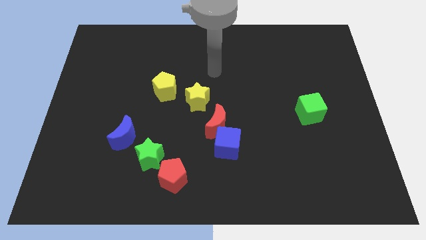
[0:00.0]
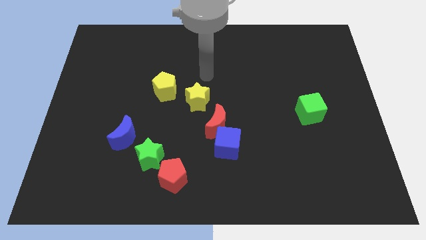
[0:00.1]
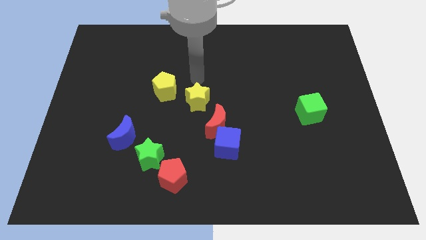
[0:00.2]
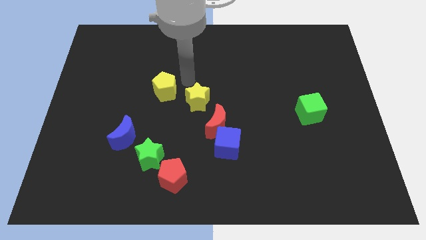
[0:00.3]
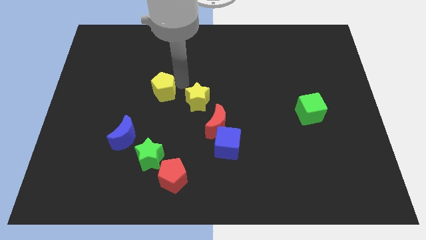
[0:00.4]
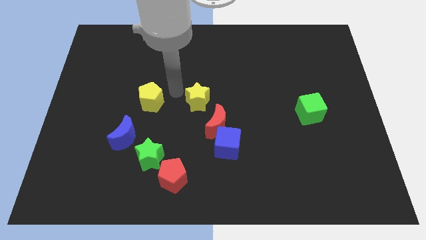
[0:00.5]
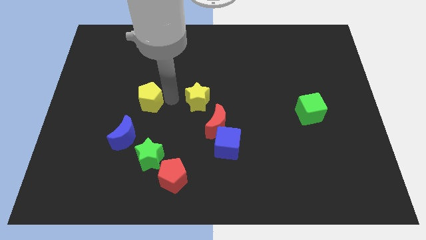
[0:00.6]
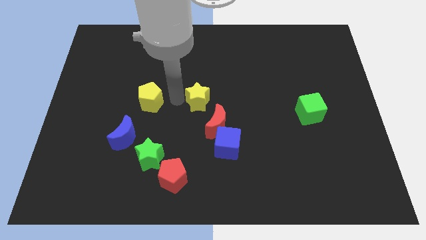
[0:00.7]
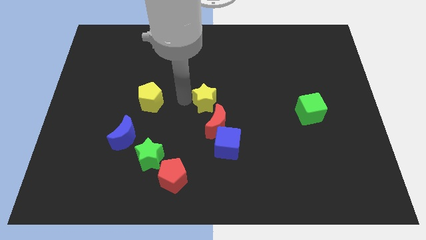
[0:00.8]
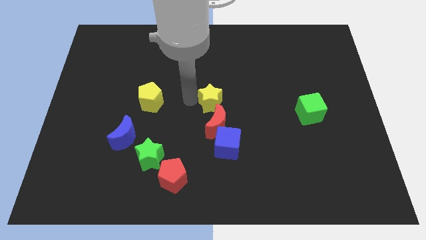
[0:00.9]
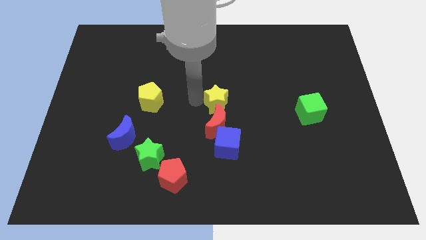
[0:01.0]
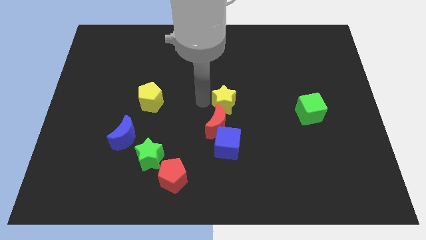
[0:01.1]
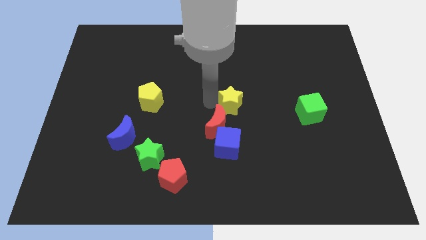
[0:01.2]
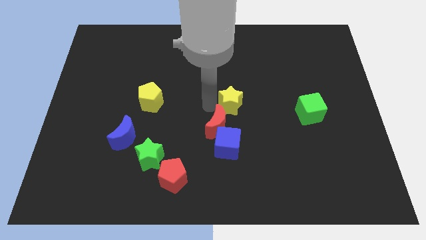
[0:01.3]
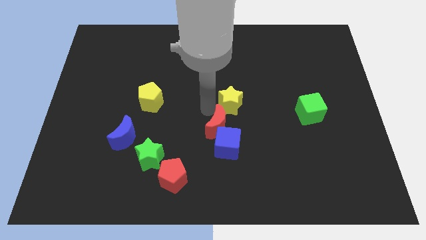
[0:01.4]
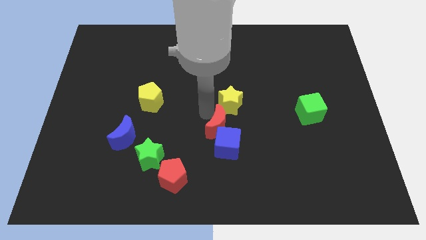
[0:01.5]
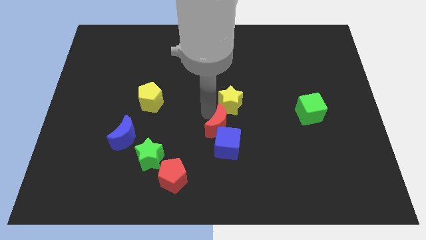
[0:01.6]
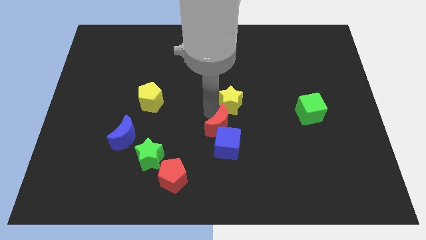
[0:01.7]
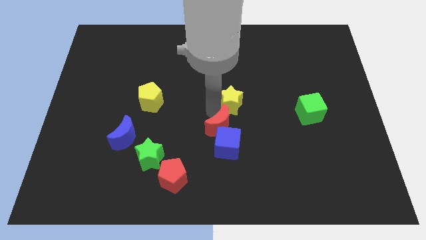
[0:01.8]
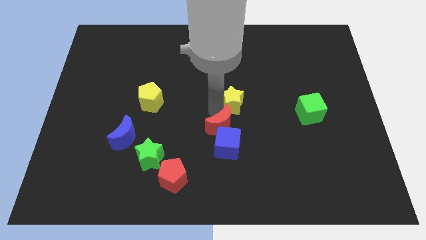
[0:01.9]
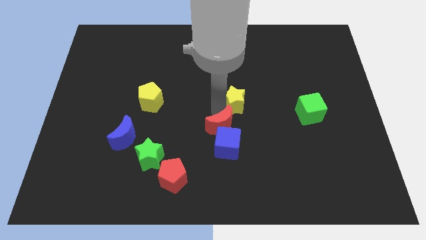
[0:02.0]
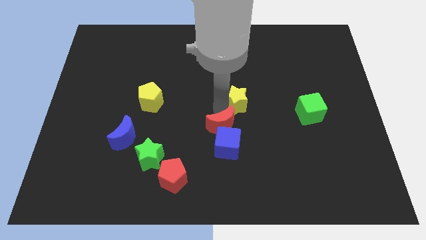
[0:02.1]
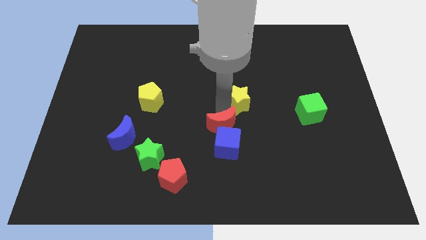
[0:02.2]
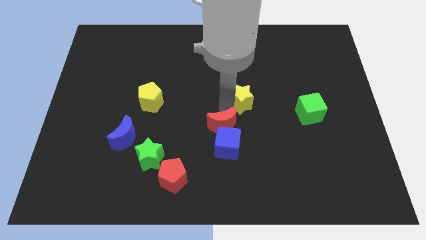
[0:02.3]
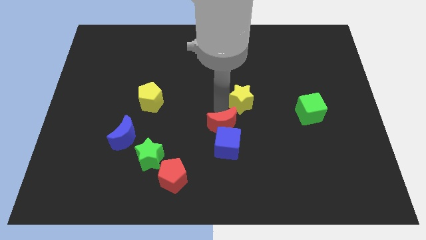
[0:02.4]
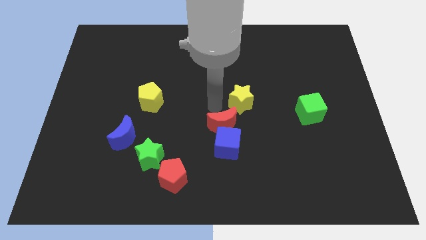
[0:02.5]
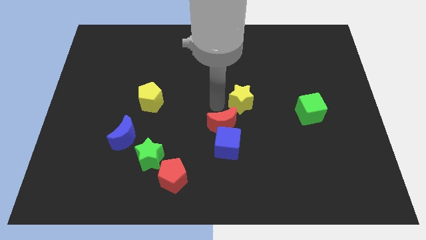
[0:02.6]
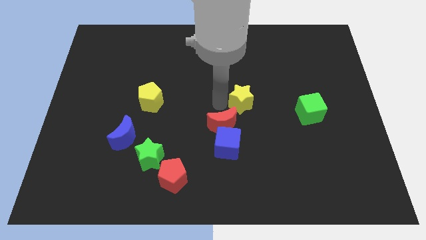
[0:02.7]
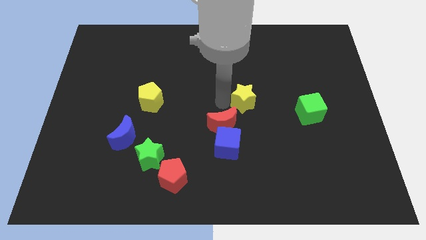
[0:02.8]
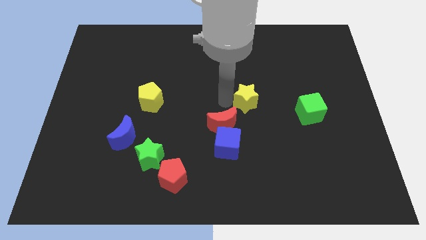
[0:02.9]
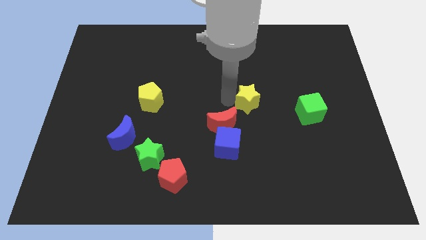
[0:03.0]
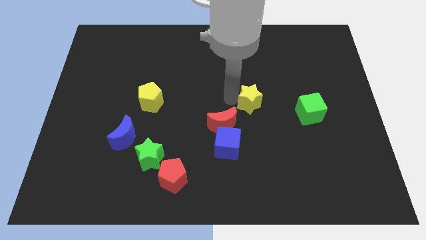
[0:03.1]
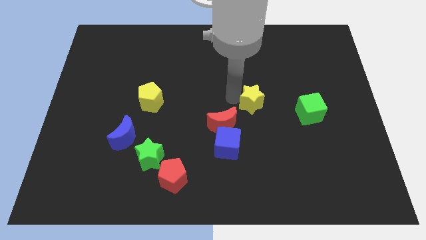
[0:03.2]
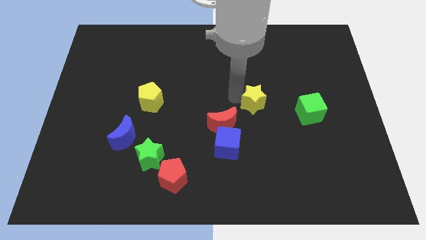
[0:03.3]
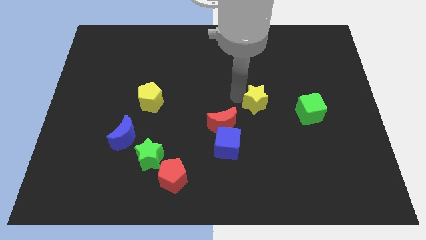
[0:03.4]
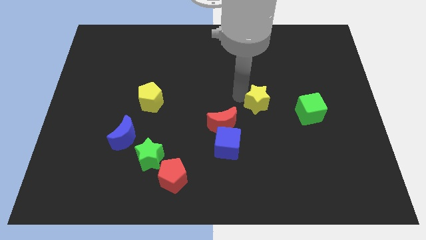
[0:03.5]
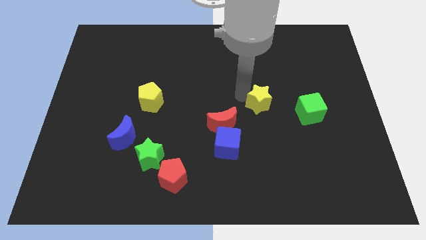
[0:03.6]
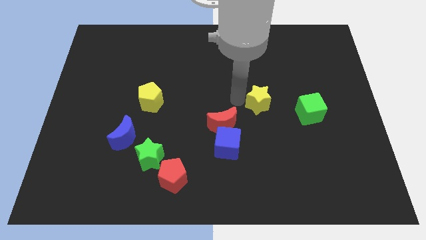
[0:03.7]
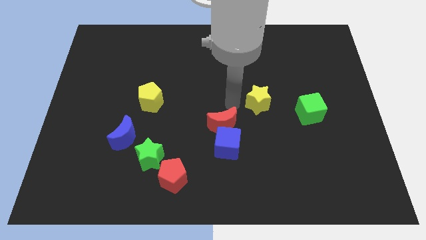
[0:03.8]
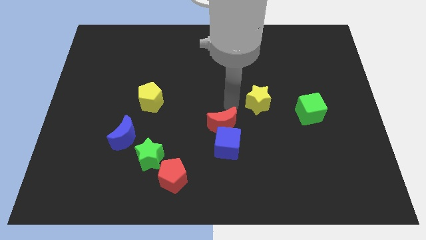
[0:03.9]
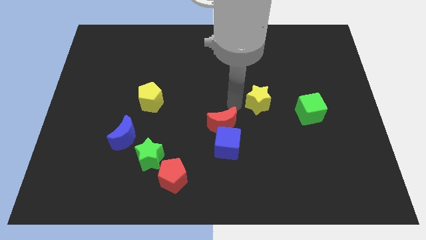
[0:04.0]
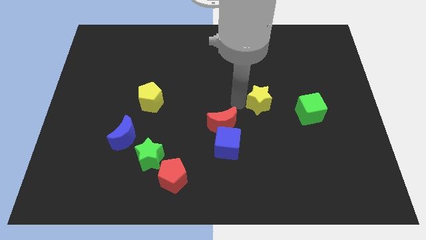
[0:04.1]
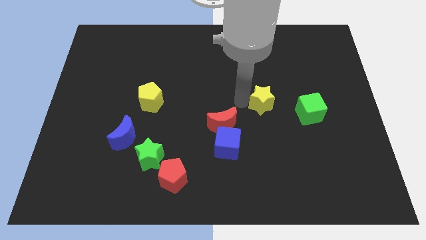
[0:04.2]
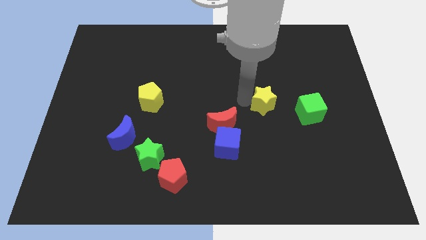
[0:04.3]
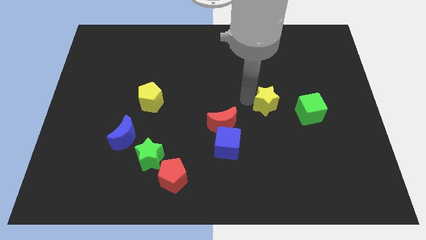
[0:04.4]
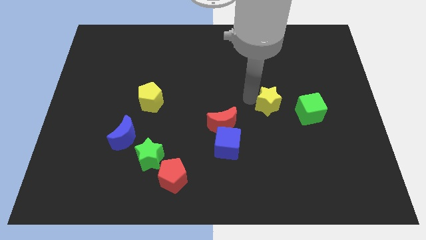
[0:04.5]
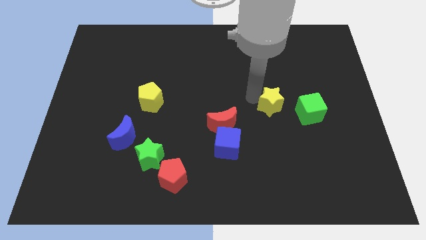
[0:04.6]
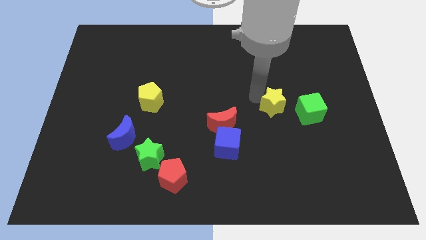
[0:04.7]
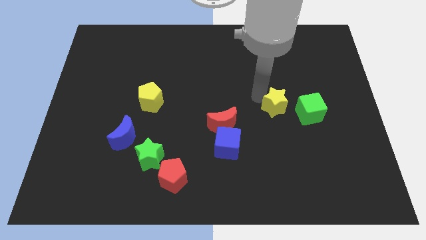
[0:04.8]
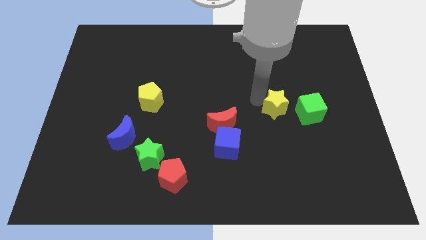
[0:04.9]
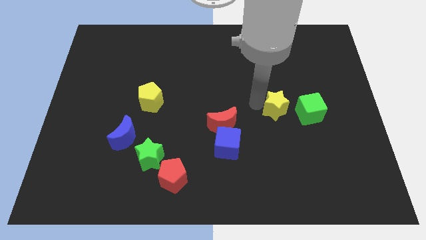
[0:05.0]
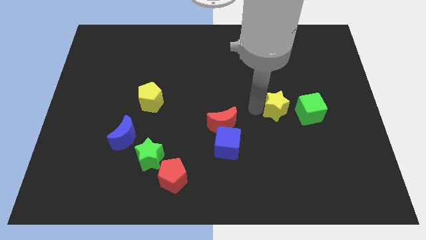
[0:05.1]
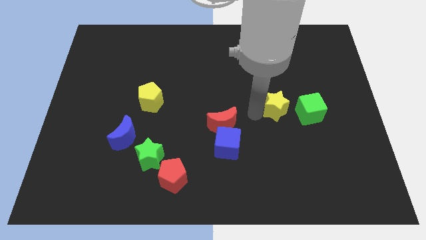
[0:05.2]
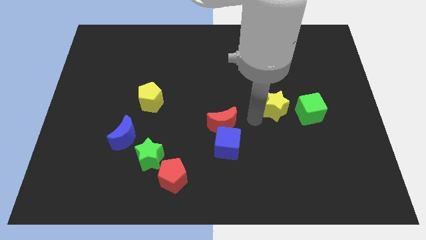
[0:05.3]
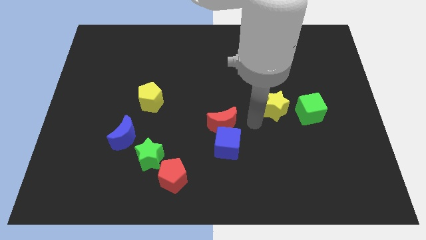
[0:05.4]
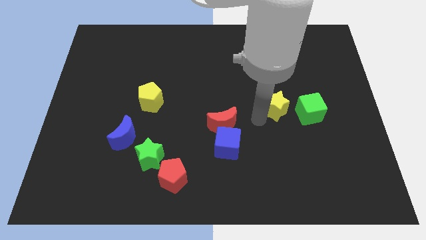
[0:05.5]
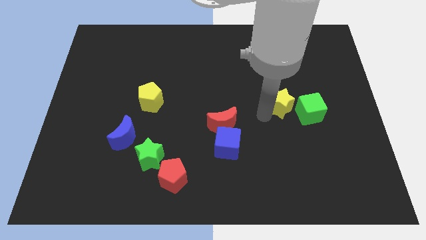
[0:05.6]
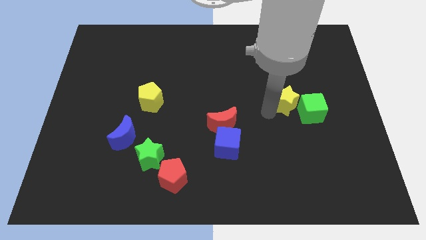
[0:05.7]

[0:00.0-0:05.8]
push the yellow star right

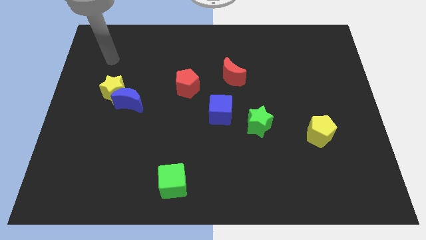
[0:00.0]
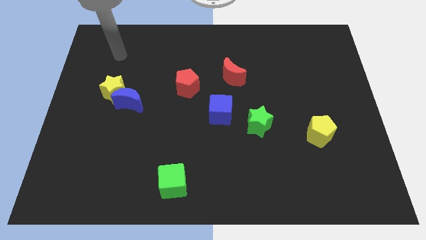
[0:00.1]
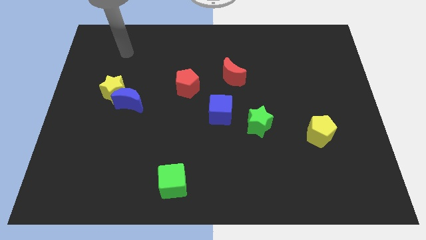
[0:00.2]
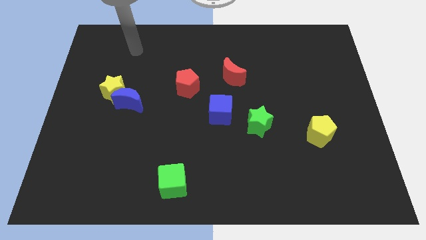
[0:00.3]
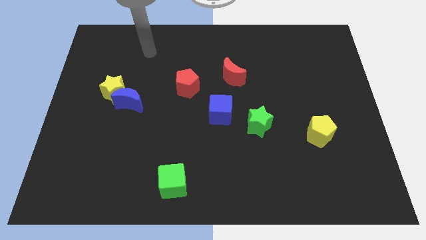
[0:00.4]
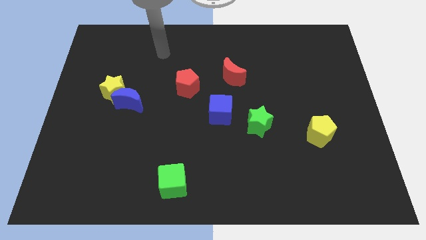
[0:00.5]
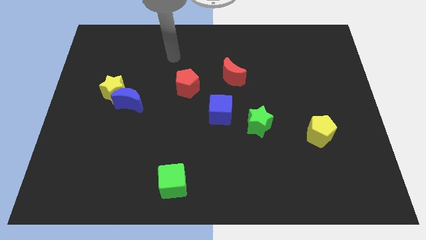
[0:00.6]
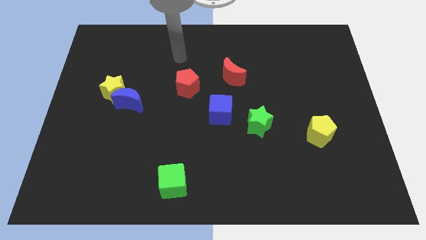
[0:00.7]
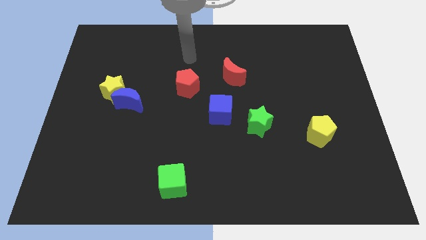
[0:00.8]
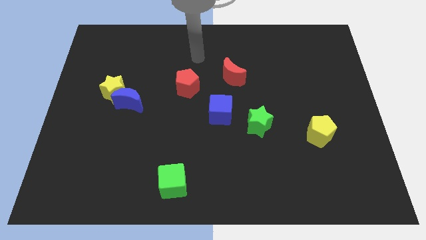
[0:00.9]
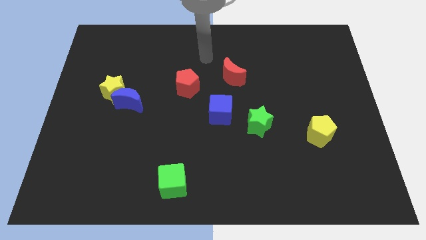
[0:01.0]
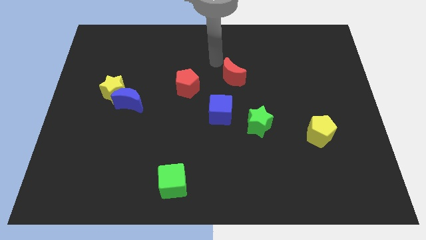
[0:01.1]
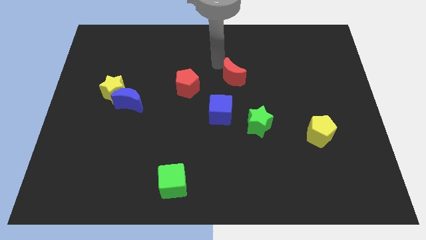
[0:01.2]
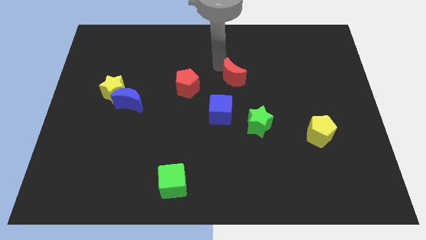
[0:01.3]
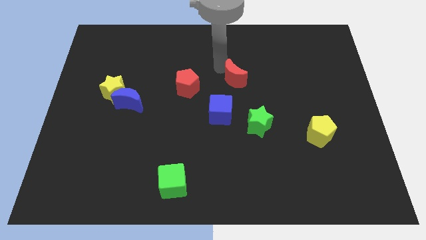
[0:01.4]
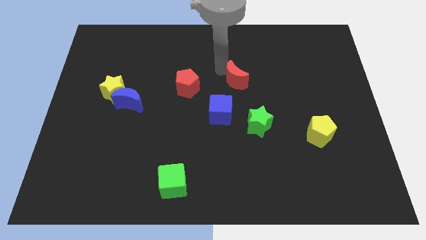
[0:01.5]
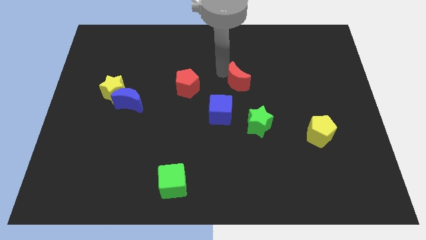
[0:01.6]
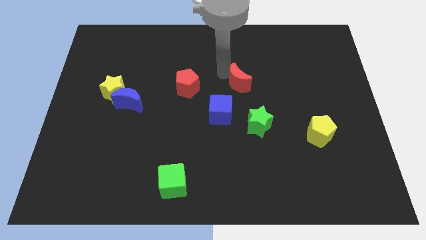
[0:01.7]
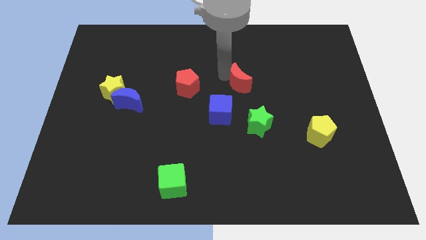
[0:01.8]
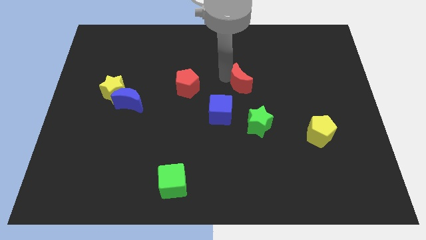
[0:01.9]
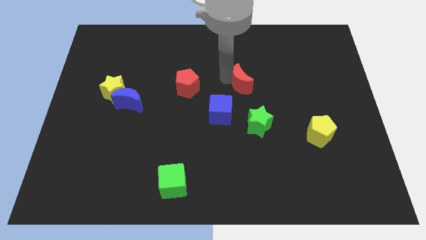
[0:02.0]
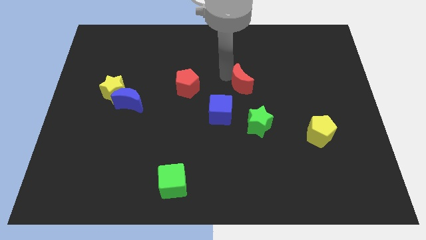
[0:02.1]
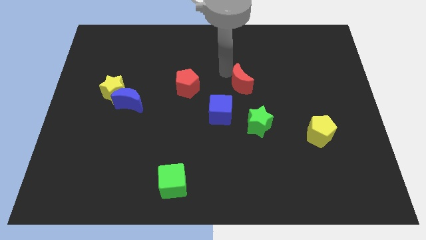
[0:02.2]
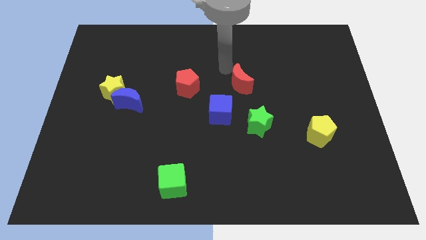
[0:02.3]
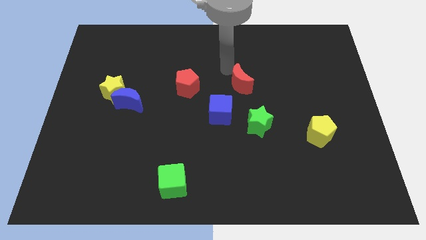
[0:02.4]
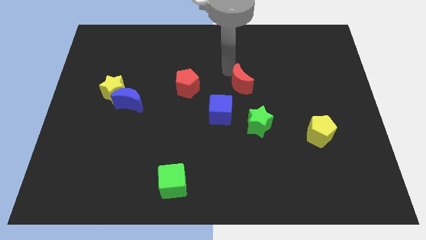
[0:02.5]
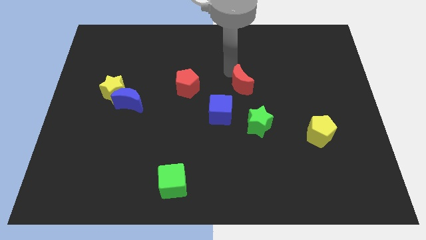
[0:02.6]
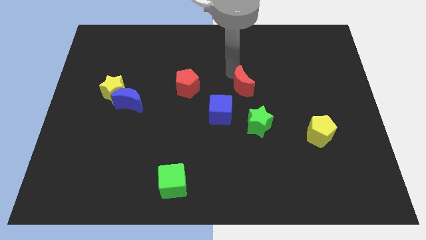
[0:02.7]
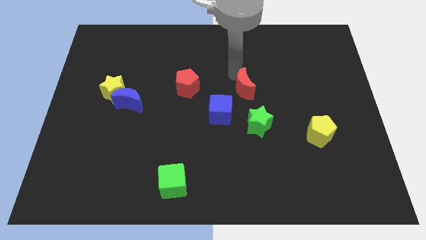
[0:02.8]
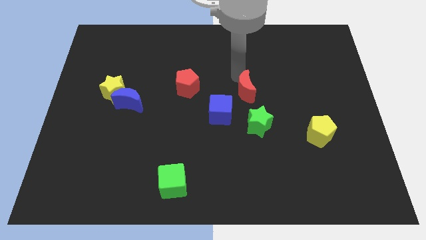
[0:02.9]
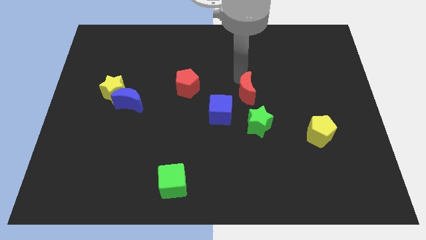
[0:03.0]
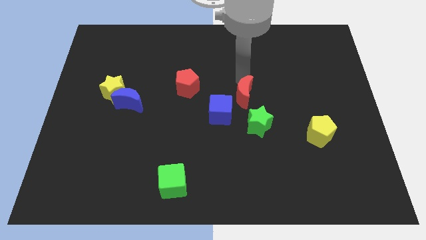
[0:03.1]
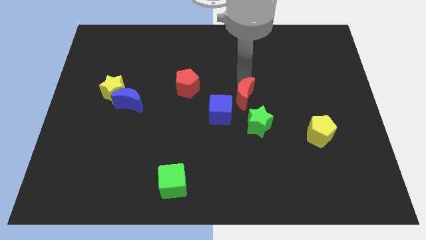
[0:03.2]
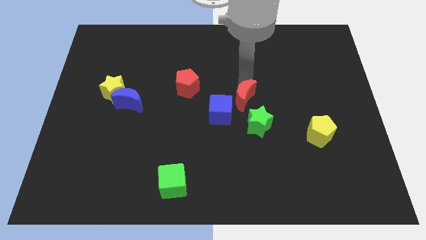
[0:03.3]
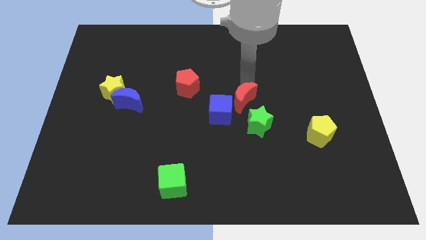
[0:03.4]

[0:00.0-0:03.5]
move the red moon slightly downwards
